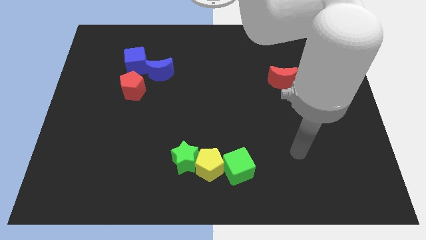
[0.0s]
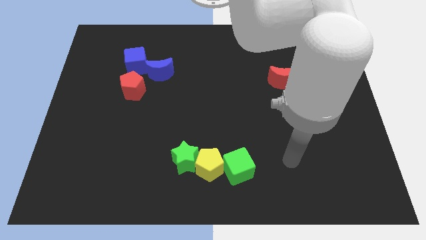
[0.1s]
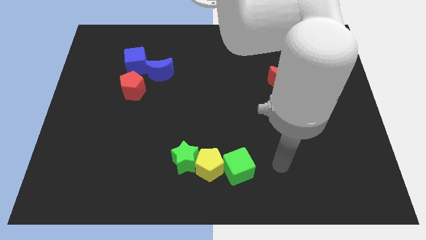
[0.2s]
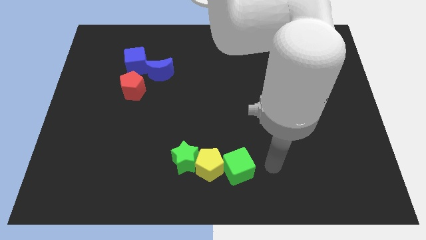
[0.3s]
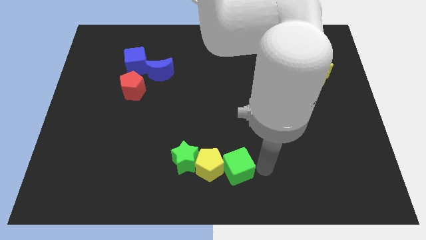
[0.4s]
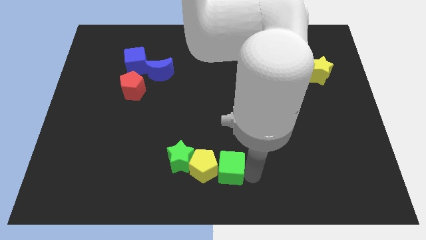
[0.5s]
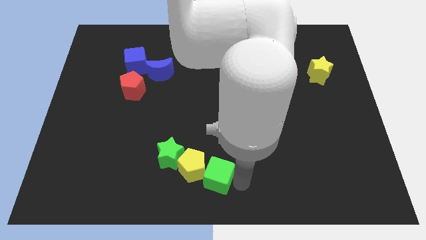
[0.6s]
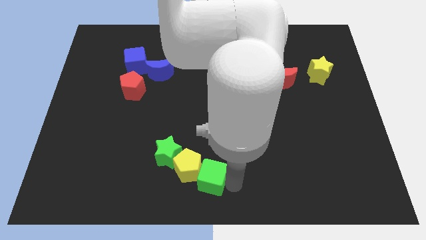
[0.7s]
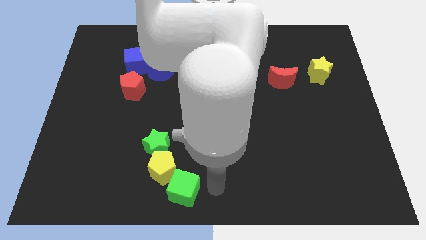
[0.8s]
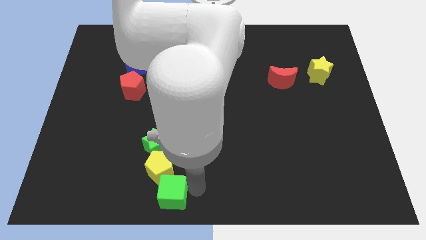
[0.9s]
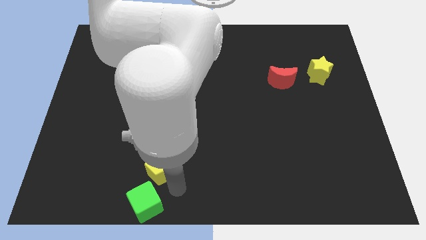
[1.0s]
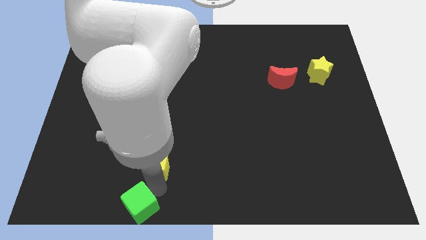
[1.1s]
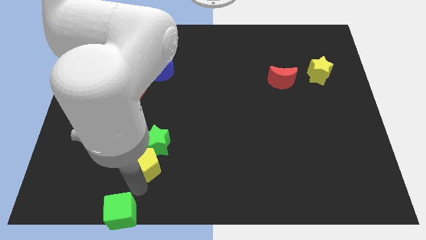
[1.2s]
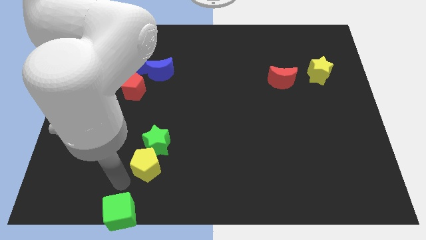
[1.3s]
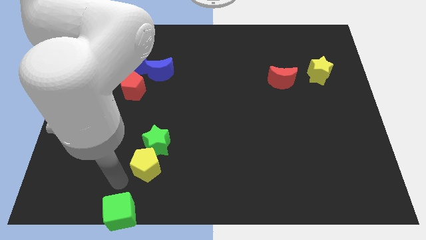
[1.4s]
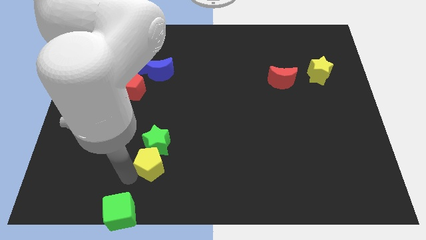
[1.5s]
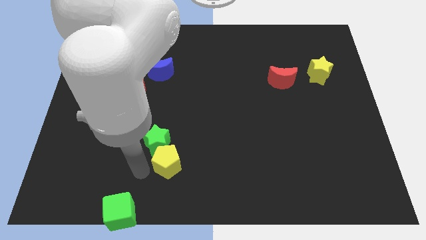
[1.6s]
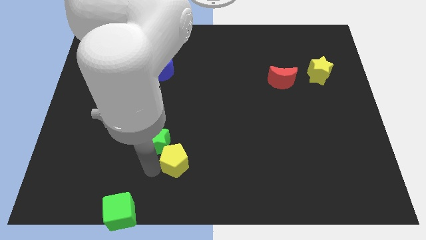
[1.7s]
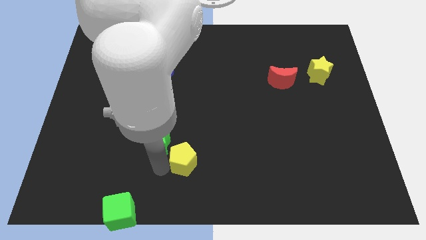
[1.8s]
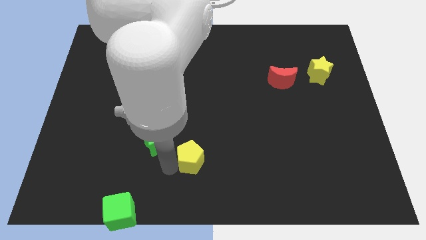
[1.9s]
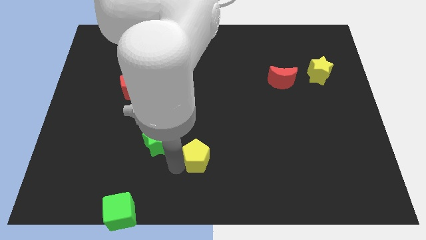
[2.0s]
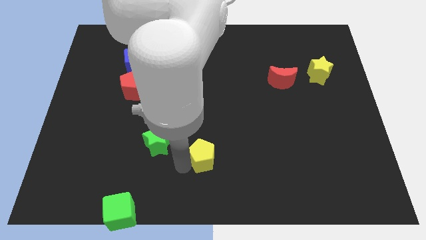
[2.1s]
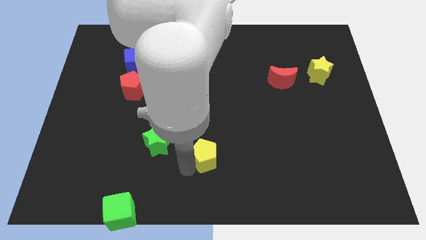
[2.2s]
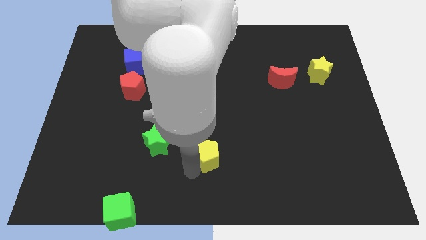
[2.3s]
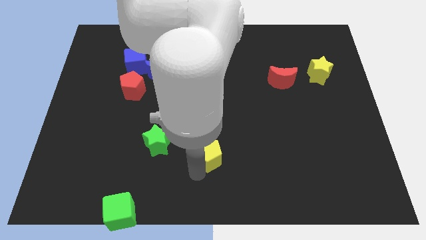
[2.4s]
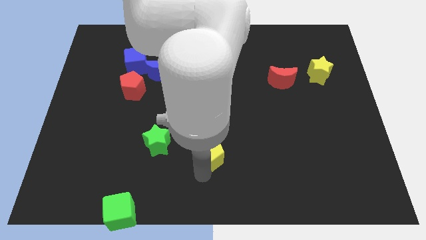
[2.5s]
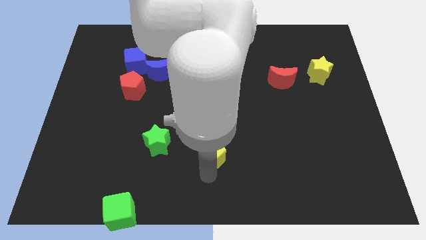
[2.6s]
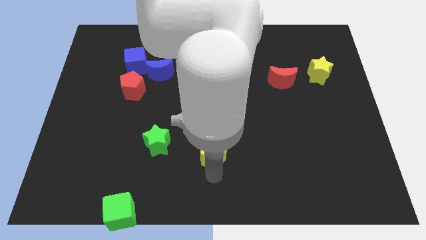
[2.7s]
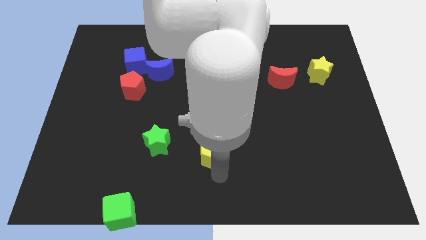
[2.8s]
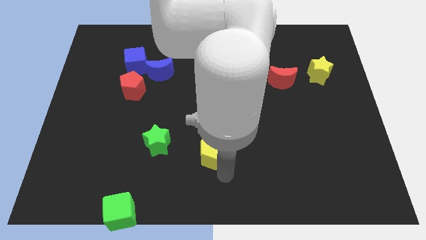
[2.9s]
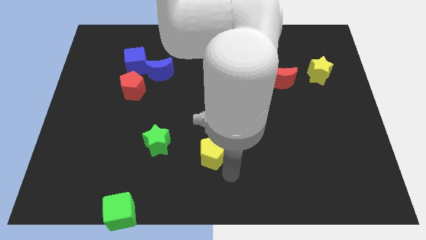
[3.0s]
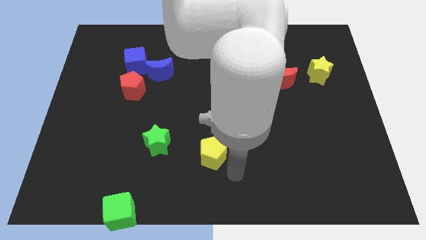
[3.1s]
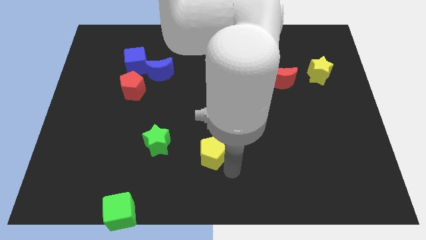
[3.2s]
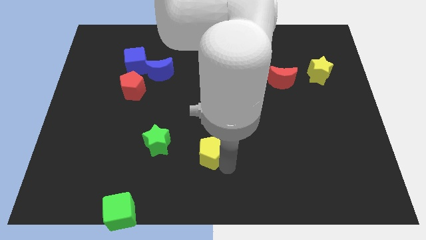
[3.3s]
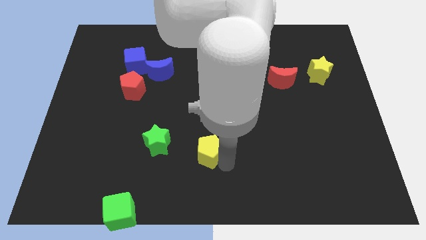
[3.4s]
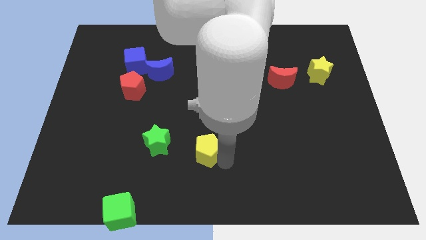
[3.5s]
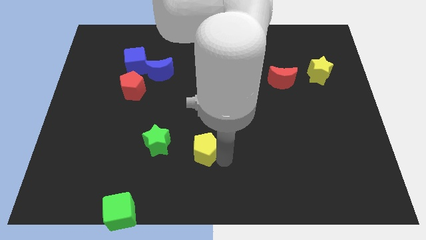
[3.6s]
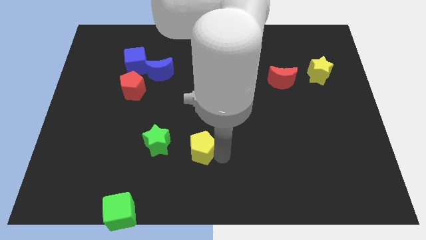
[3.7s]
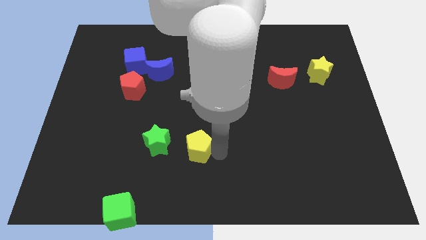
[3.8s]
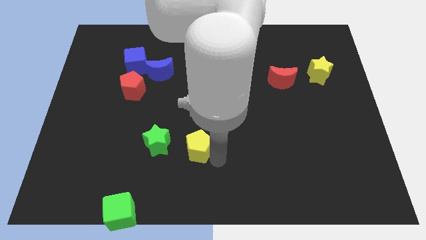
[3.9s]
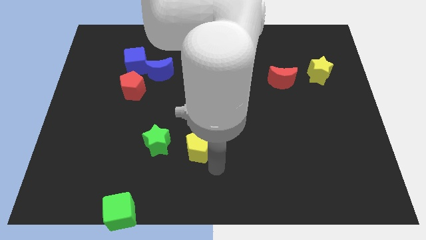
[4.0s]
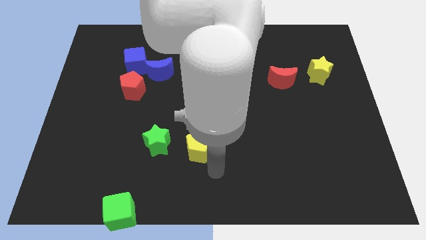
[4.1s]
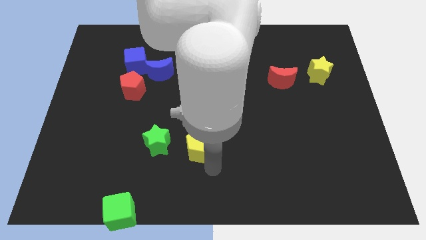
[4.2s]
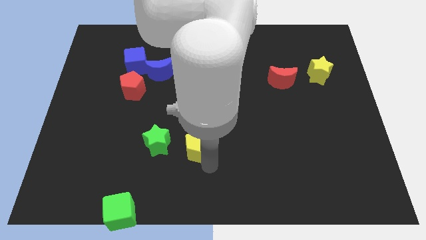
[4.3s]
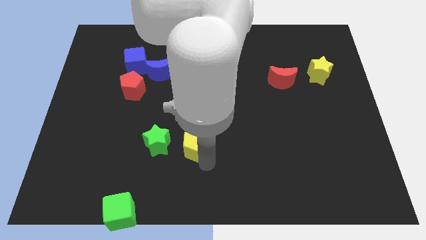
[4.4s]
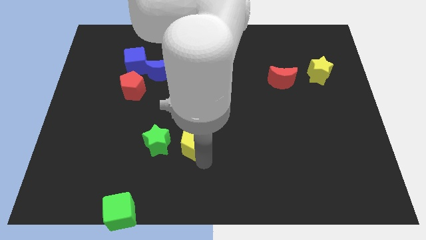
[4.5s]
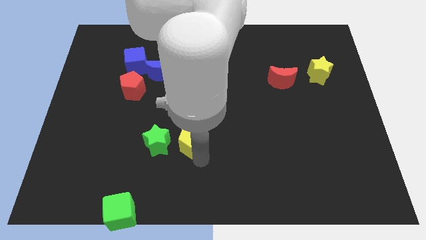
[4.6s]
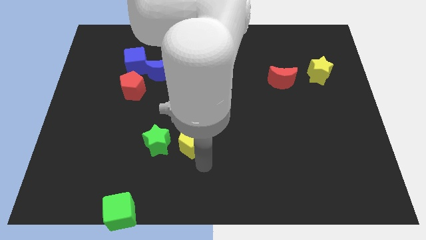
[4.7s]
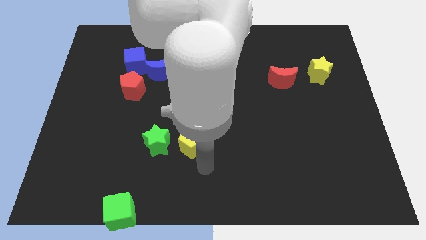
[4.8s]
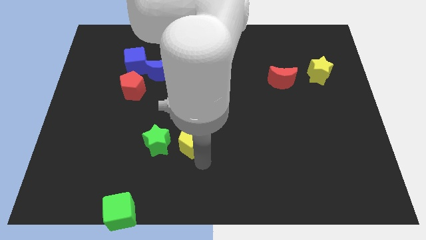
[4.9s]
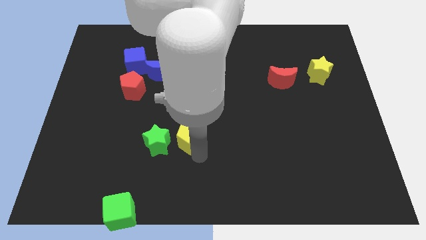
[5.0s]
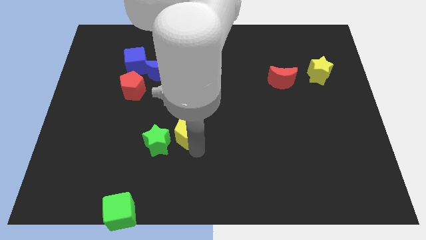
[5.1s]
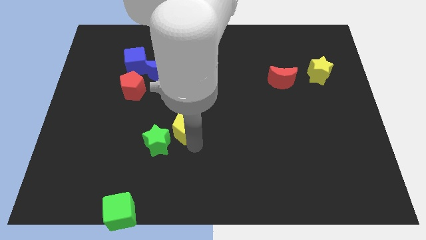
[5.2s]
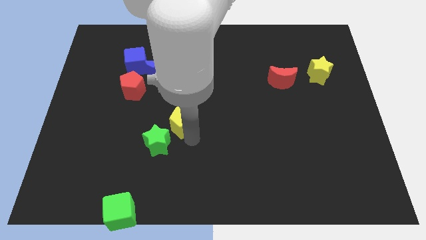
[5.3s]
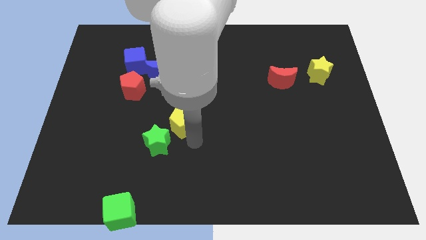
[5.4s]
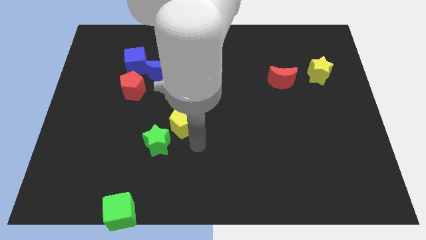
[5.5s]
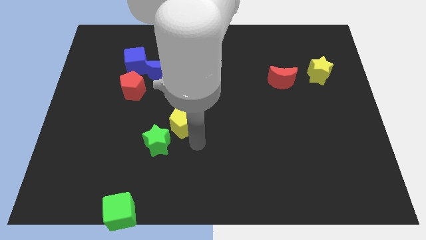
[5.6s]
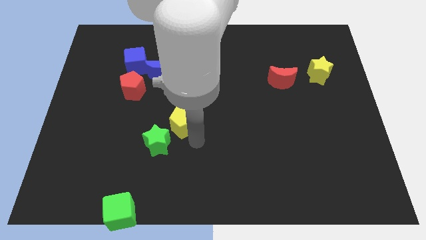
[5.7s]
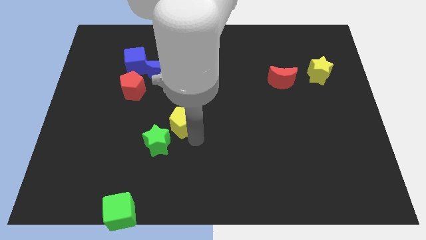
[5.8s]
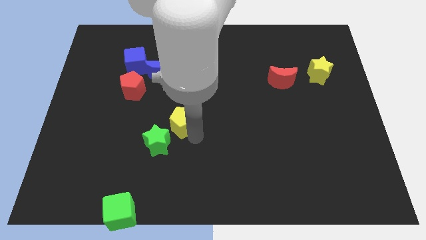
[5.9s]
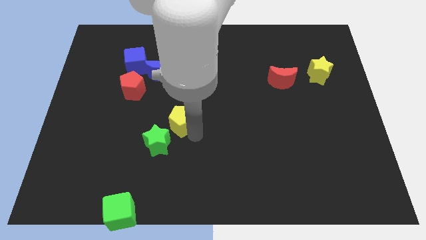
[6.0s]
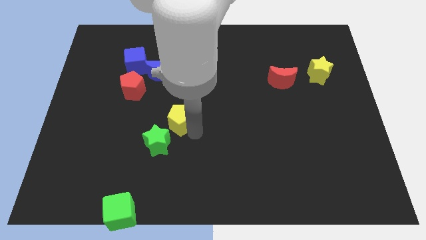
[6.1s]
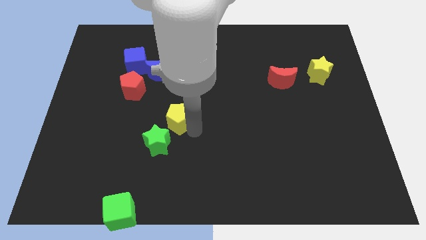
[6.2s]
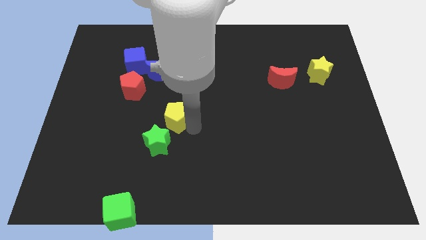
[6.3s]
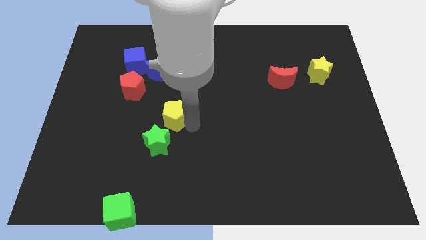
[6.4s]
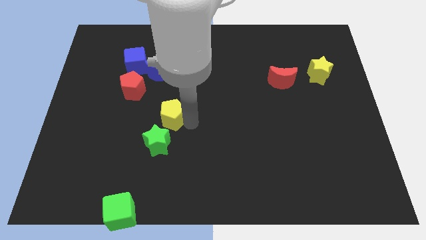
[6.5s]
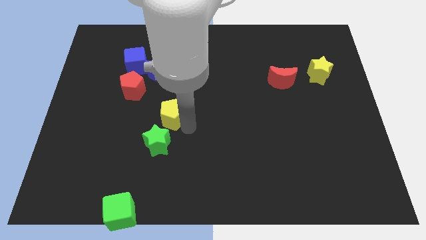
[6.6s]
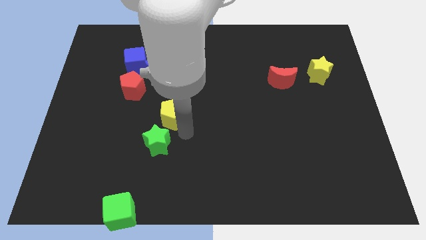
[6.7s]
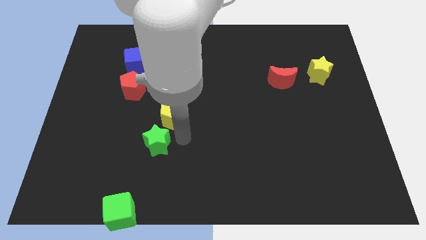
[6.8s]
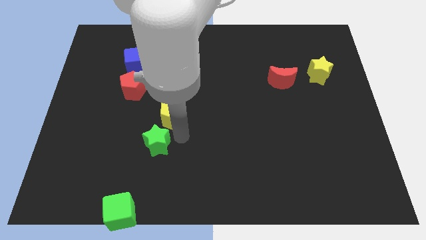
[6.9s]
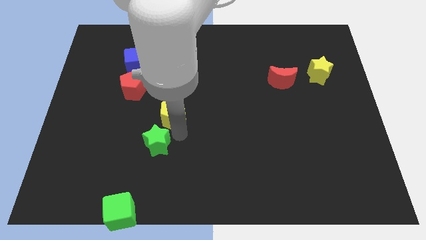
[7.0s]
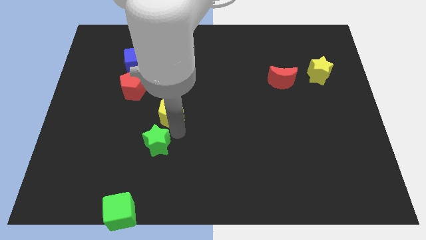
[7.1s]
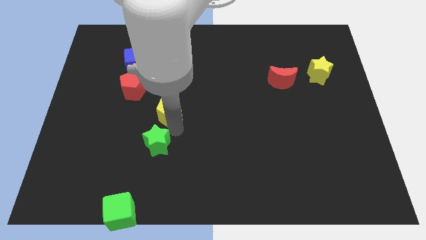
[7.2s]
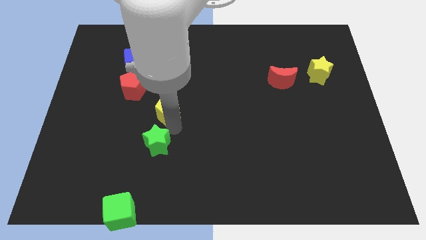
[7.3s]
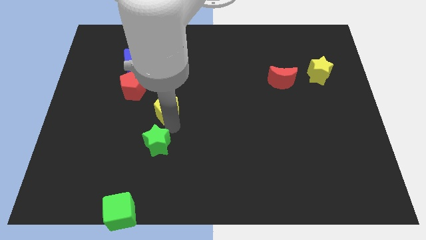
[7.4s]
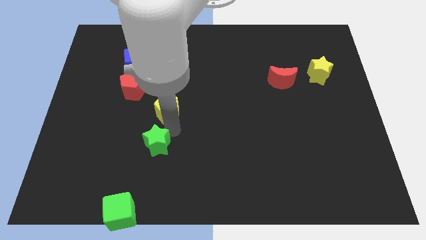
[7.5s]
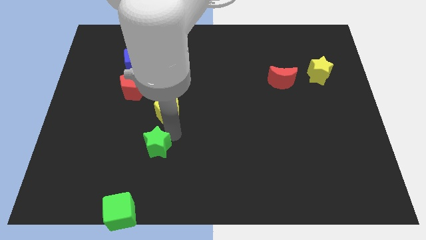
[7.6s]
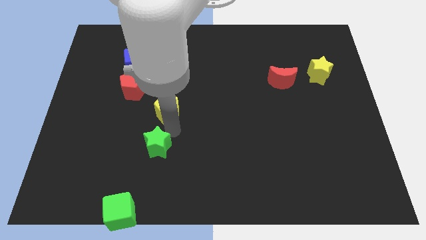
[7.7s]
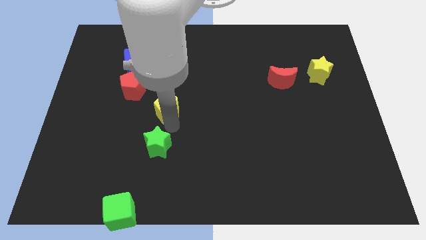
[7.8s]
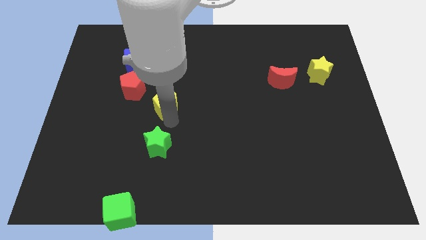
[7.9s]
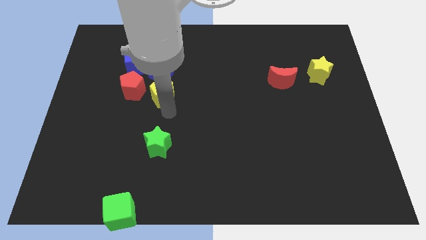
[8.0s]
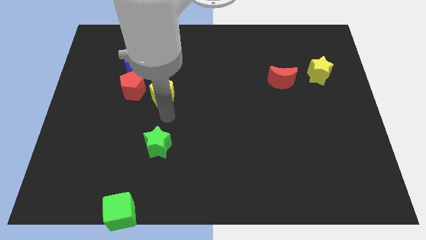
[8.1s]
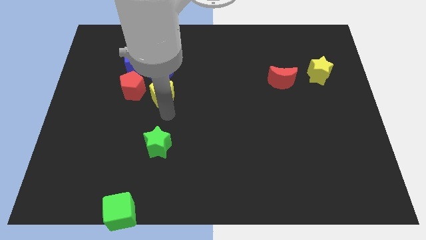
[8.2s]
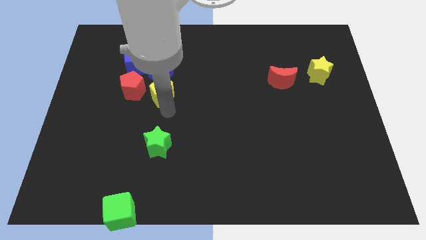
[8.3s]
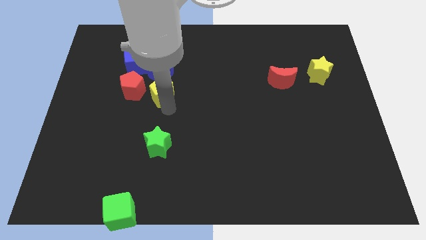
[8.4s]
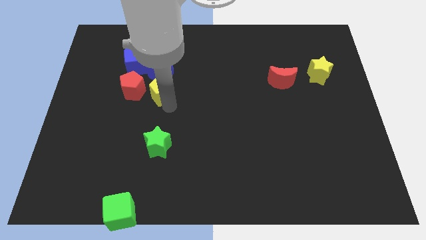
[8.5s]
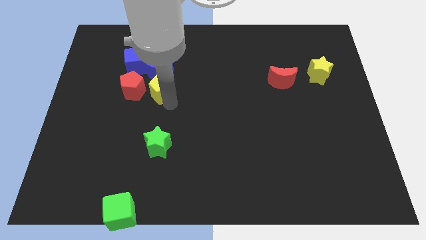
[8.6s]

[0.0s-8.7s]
push the yellow pentagon close to the blue moon
